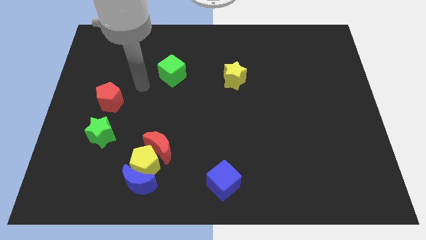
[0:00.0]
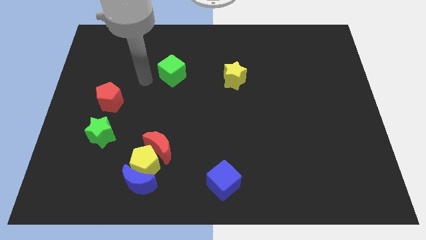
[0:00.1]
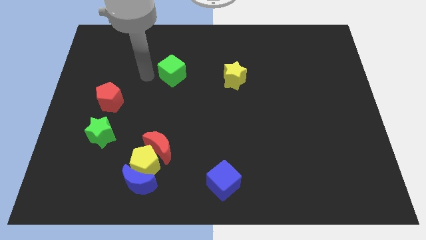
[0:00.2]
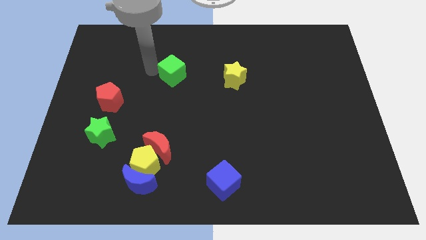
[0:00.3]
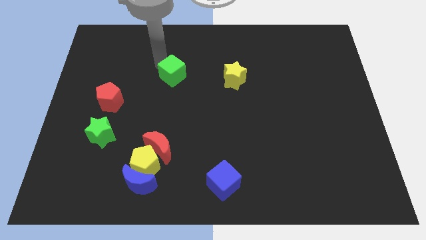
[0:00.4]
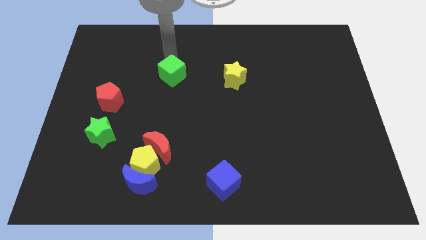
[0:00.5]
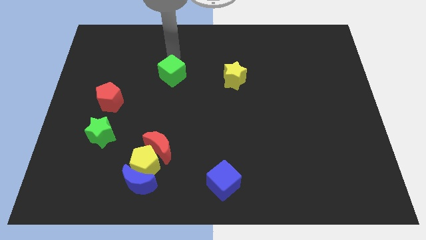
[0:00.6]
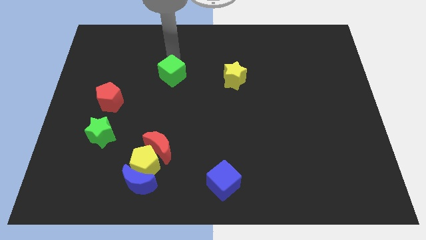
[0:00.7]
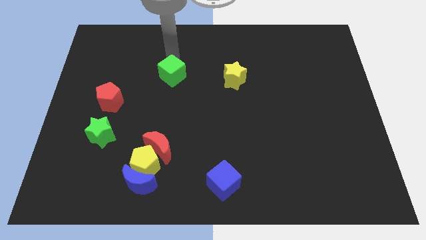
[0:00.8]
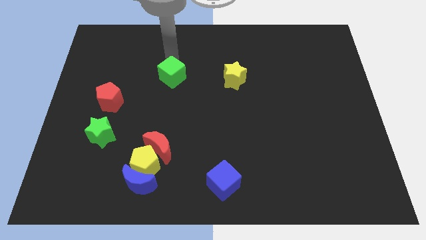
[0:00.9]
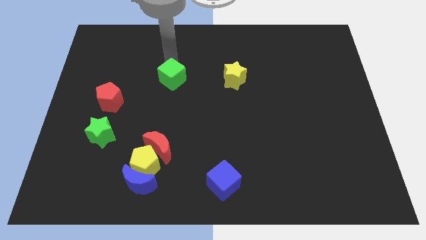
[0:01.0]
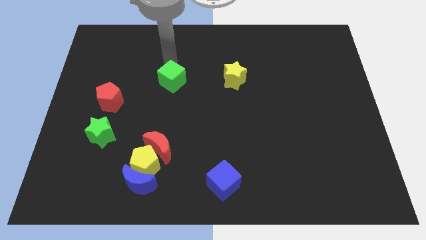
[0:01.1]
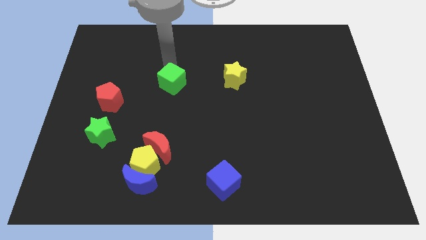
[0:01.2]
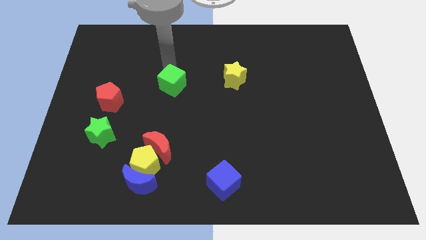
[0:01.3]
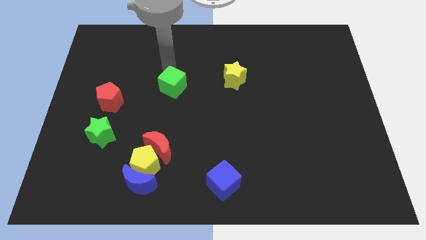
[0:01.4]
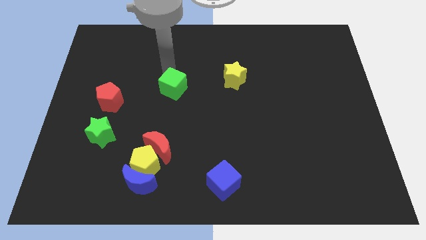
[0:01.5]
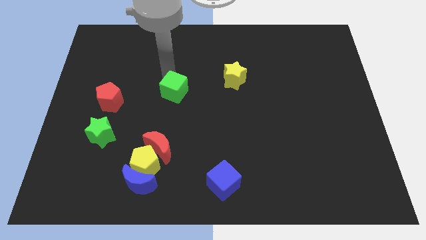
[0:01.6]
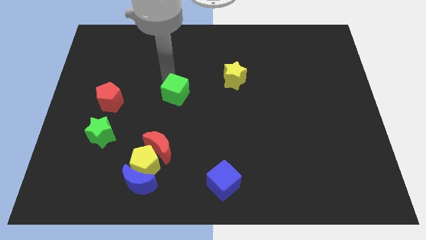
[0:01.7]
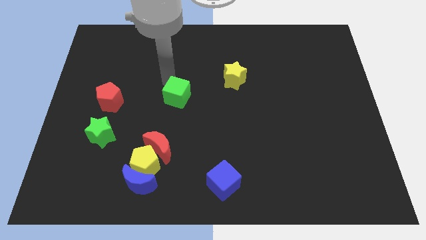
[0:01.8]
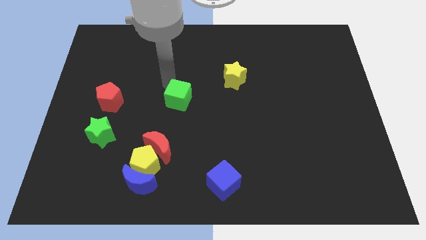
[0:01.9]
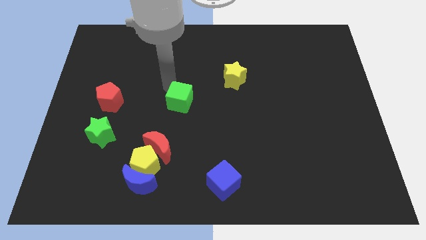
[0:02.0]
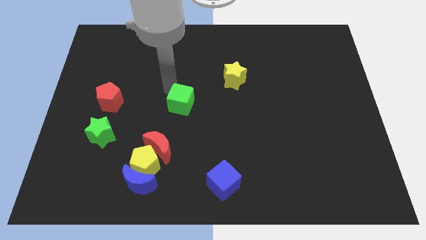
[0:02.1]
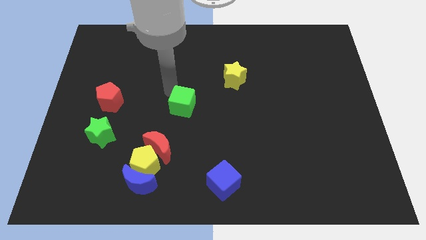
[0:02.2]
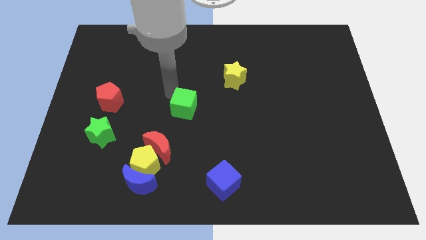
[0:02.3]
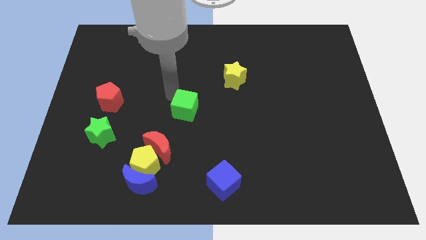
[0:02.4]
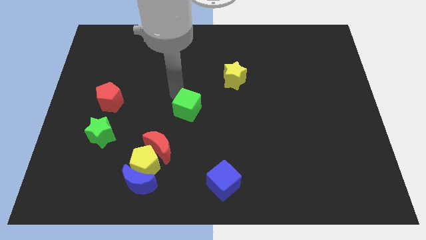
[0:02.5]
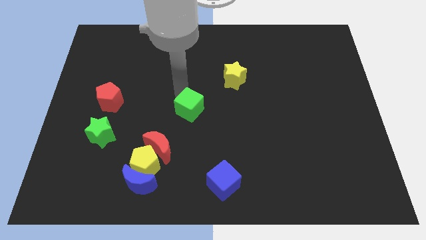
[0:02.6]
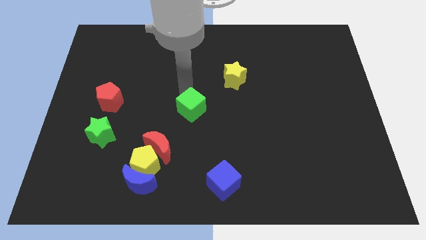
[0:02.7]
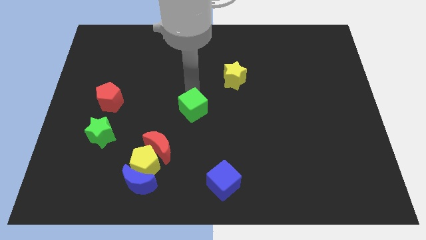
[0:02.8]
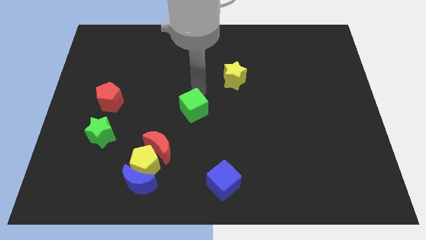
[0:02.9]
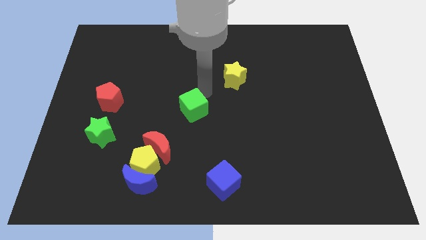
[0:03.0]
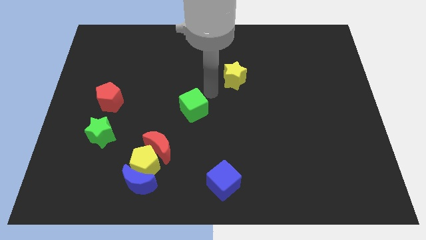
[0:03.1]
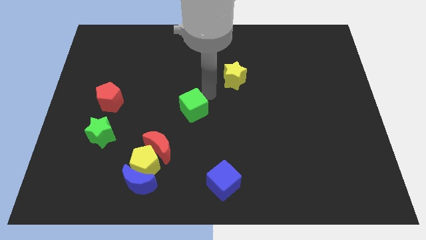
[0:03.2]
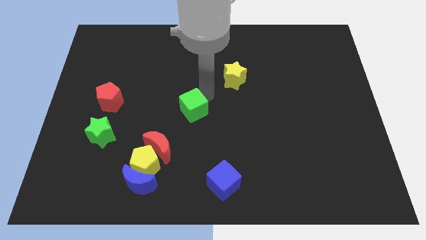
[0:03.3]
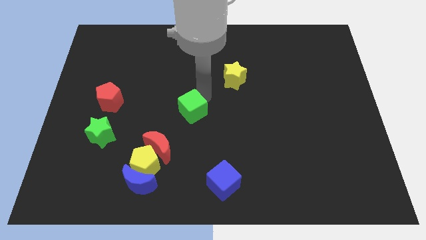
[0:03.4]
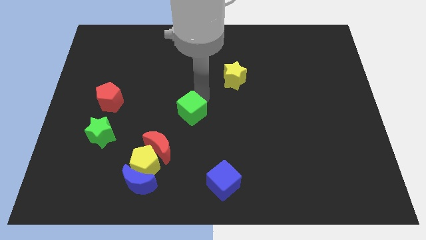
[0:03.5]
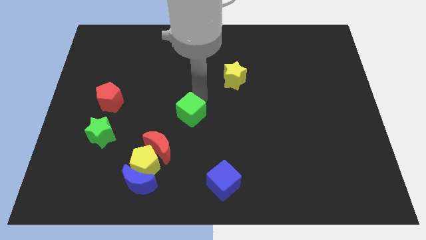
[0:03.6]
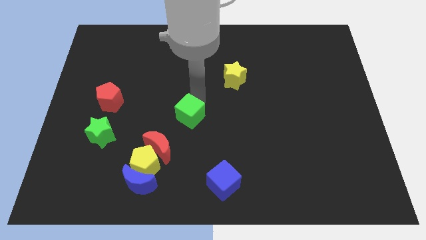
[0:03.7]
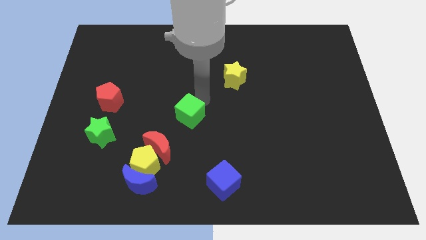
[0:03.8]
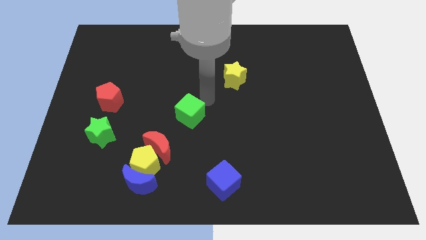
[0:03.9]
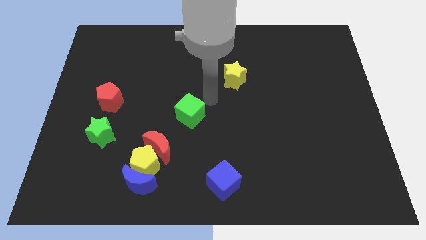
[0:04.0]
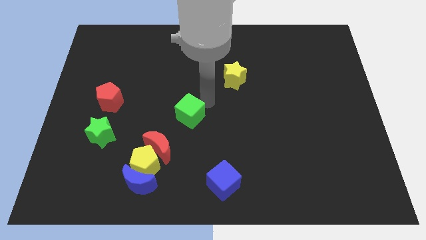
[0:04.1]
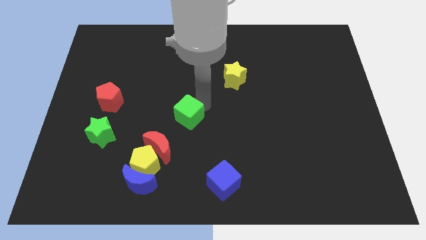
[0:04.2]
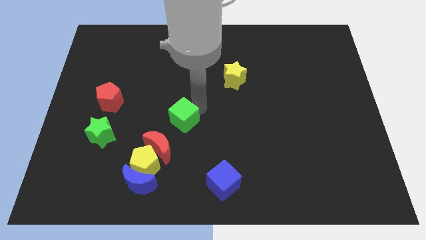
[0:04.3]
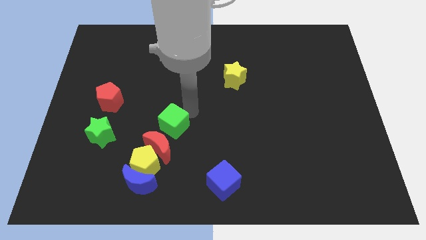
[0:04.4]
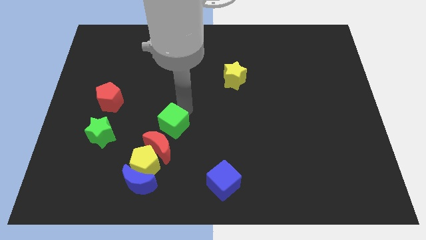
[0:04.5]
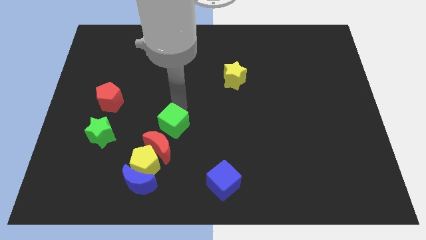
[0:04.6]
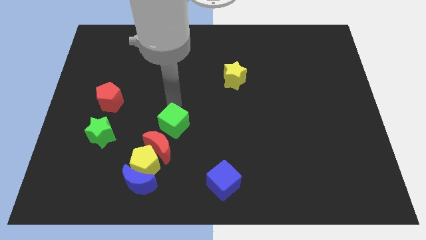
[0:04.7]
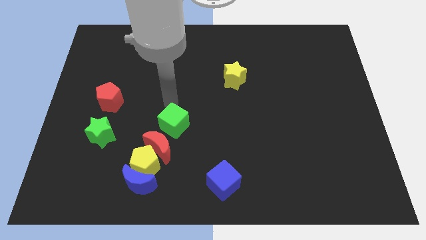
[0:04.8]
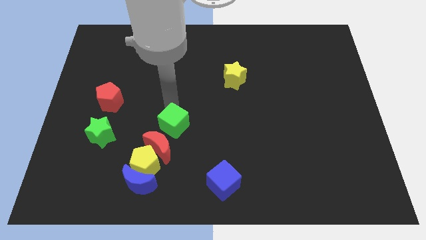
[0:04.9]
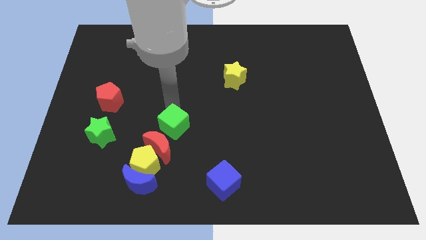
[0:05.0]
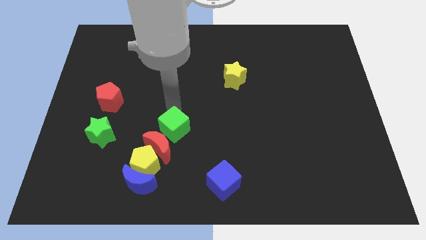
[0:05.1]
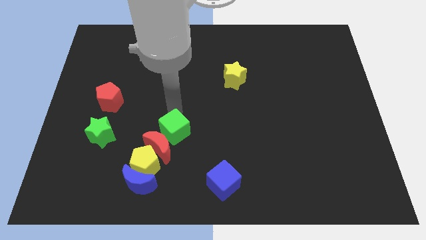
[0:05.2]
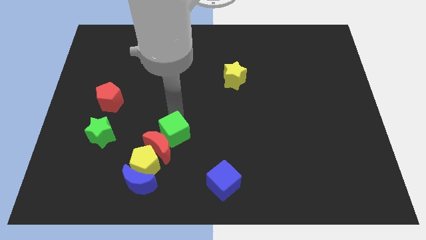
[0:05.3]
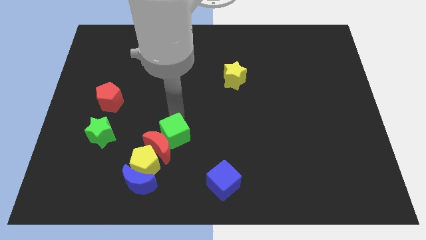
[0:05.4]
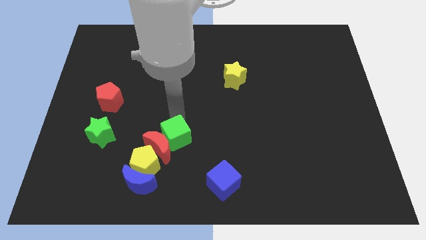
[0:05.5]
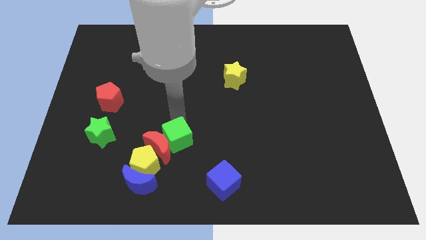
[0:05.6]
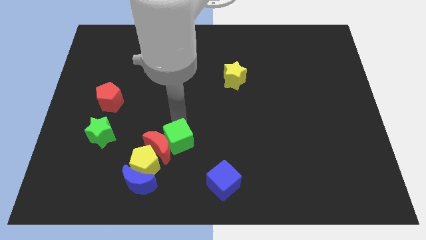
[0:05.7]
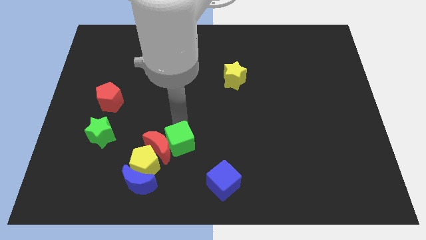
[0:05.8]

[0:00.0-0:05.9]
slide the green cube diagonally up and to the right of the blue moon

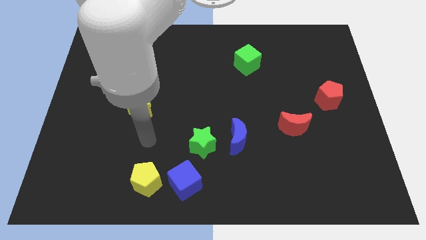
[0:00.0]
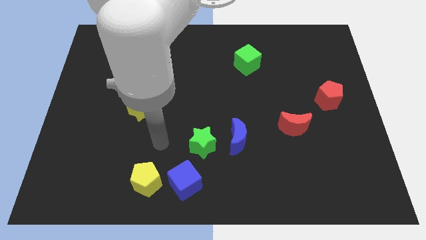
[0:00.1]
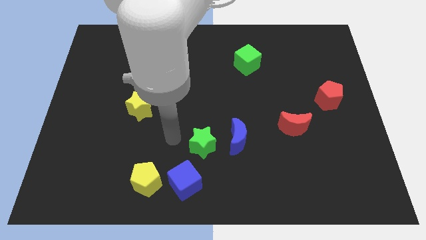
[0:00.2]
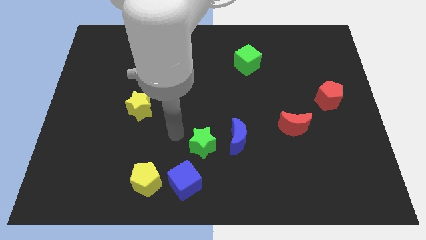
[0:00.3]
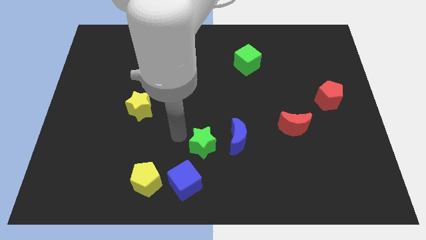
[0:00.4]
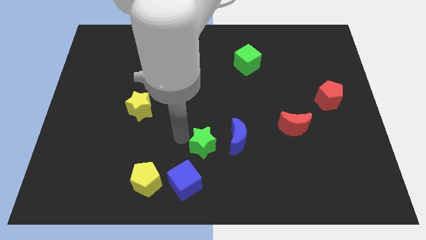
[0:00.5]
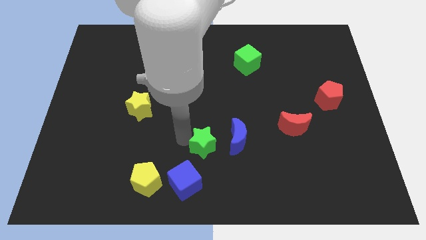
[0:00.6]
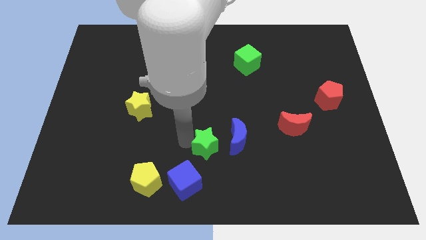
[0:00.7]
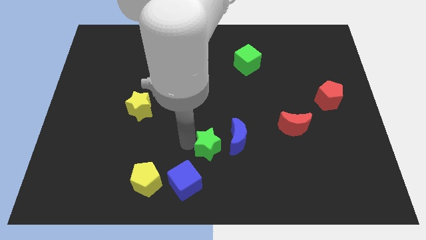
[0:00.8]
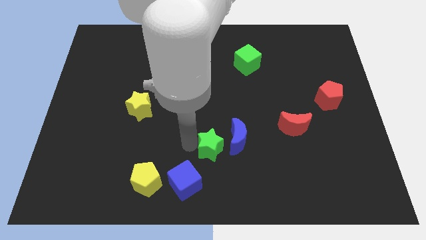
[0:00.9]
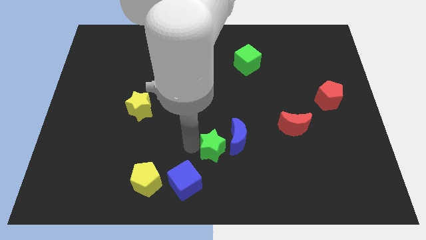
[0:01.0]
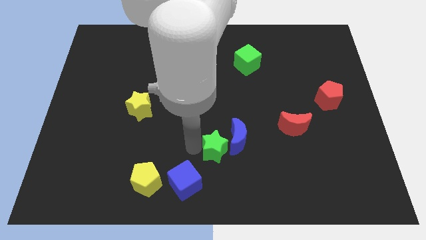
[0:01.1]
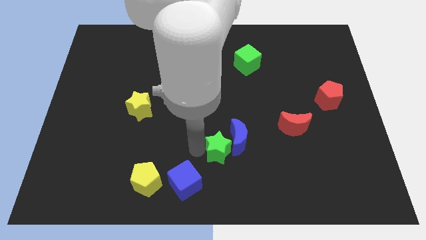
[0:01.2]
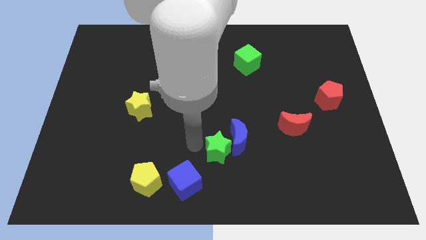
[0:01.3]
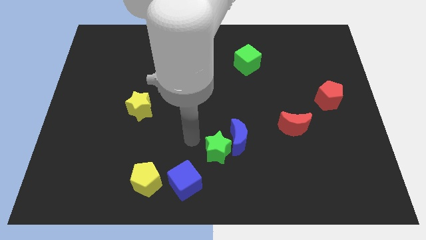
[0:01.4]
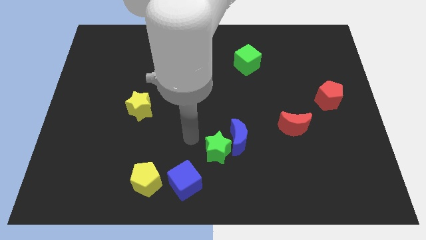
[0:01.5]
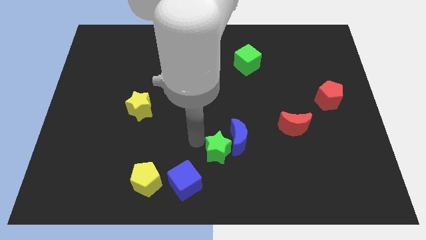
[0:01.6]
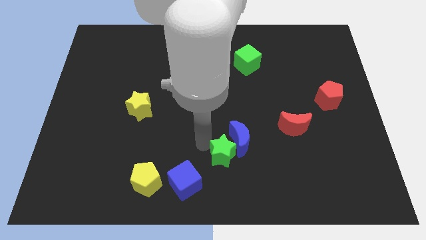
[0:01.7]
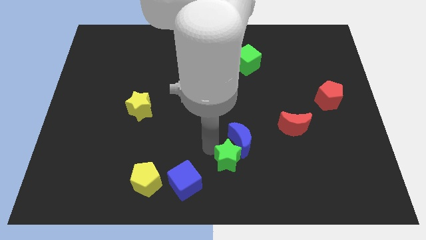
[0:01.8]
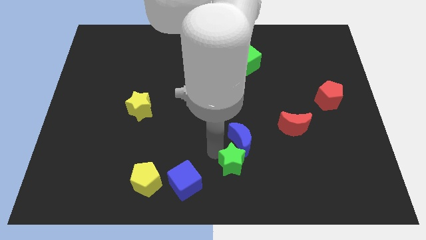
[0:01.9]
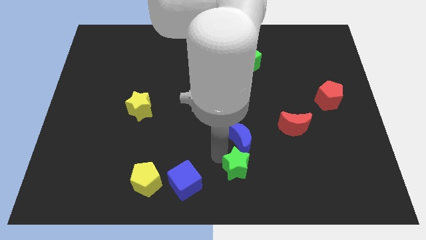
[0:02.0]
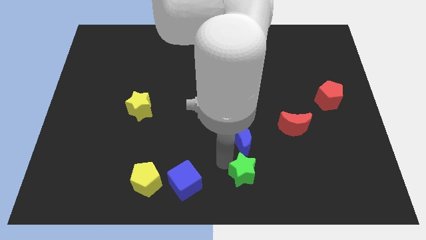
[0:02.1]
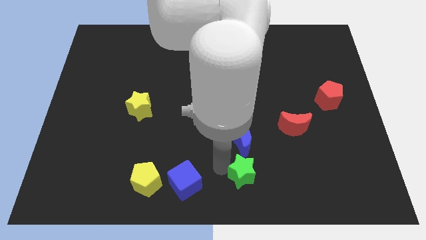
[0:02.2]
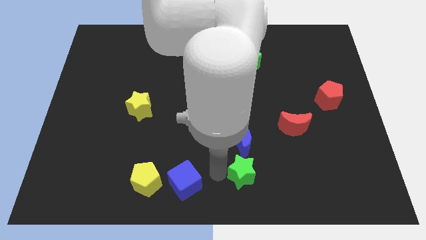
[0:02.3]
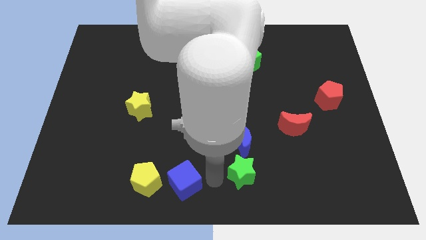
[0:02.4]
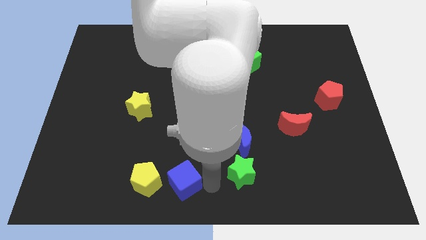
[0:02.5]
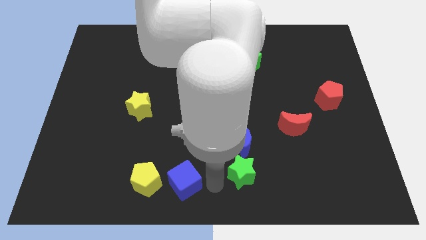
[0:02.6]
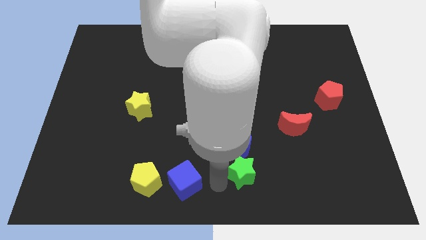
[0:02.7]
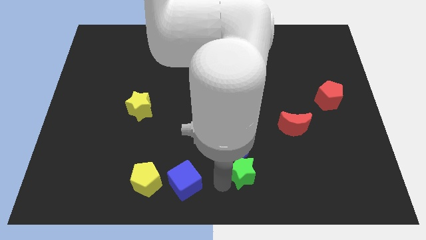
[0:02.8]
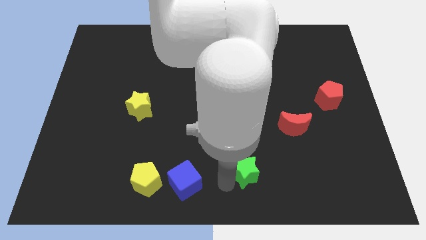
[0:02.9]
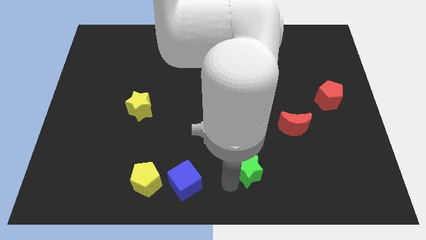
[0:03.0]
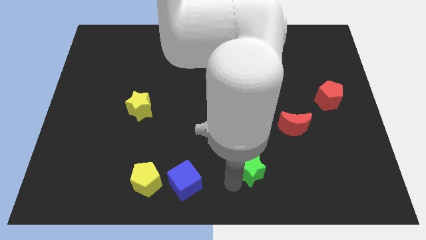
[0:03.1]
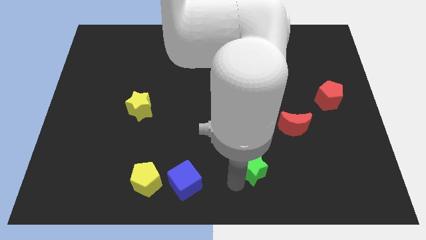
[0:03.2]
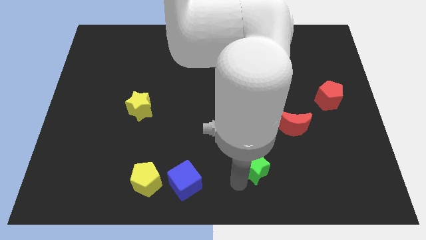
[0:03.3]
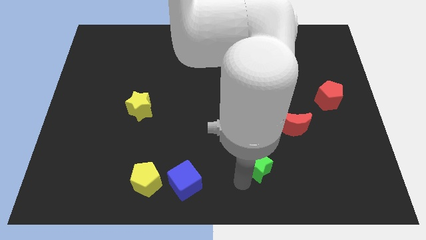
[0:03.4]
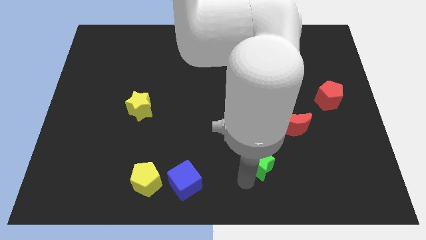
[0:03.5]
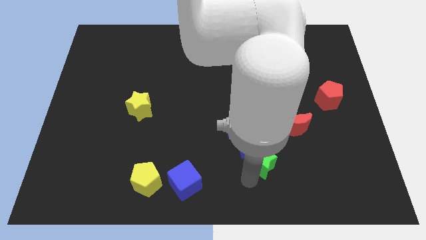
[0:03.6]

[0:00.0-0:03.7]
move the green star to the bottom left of the red moon
